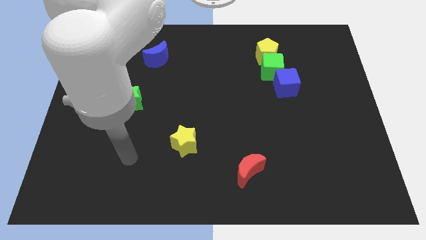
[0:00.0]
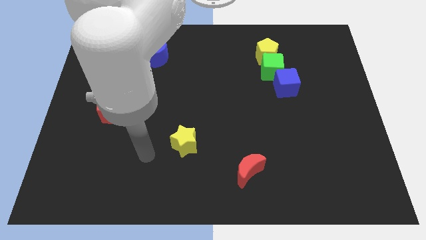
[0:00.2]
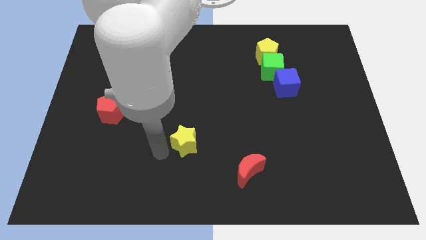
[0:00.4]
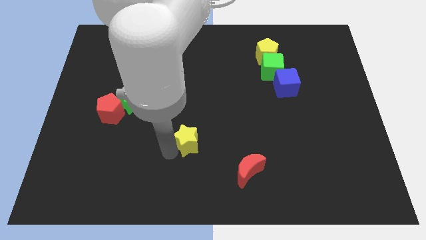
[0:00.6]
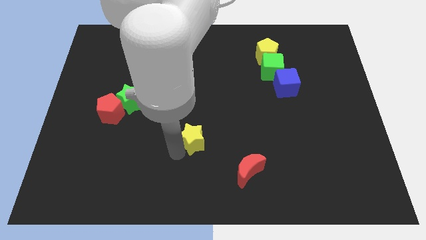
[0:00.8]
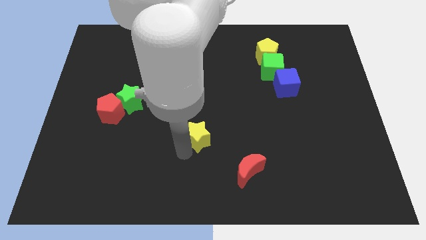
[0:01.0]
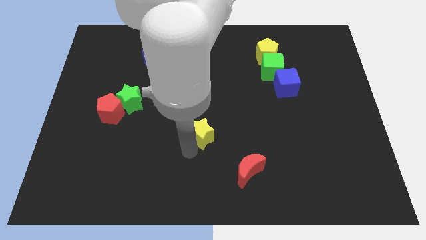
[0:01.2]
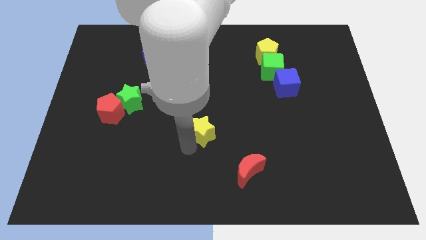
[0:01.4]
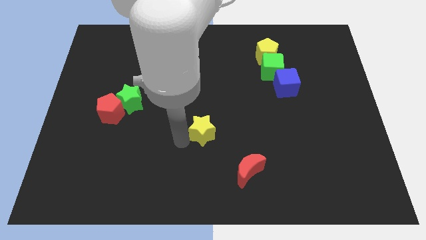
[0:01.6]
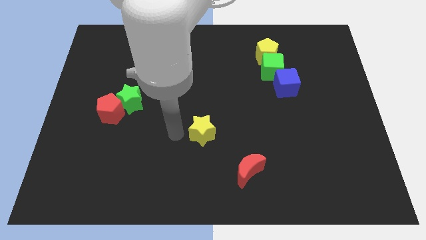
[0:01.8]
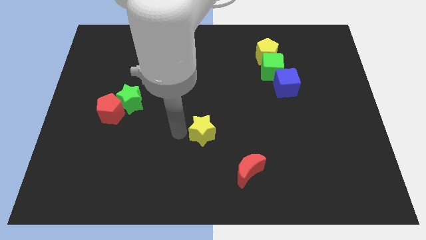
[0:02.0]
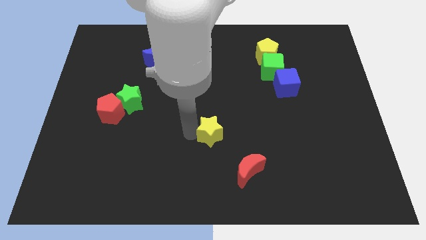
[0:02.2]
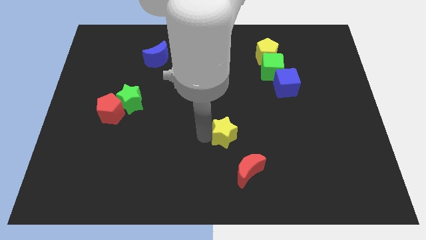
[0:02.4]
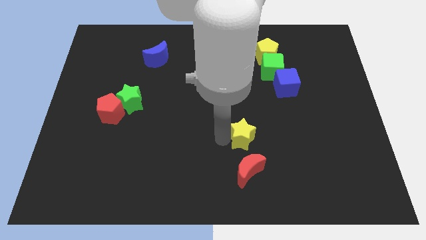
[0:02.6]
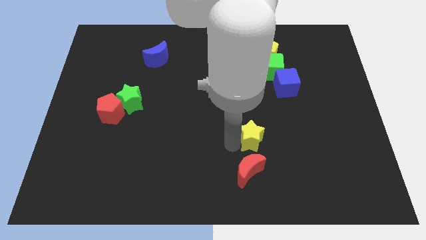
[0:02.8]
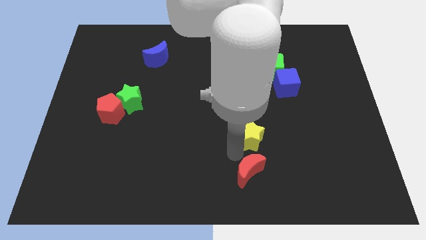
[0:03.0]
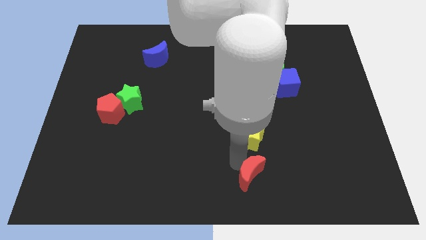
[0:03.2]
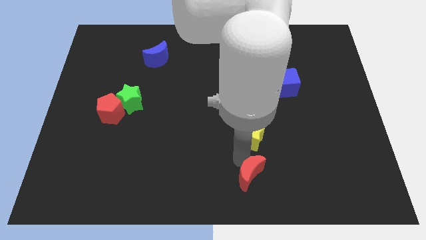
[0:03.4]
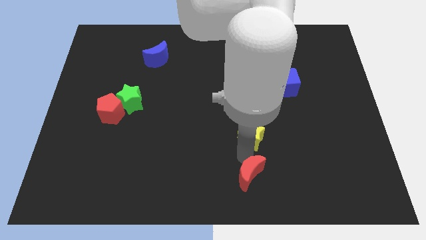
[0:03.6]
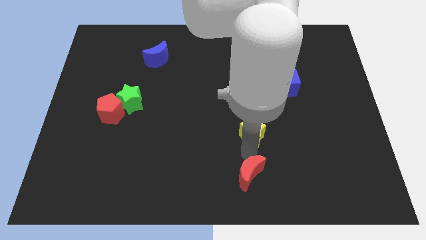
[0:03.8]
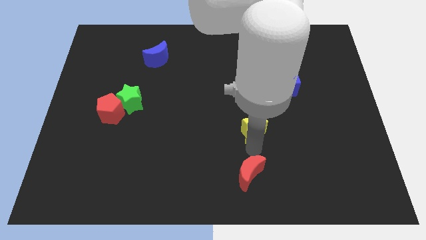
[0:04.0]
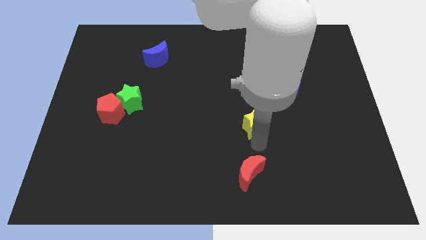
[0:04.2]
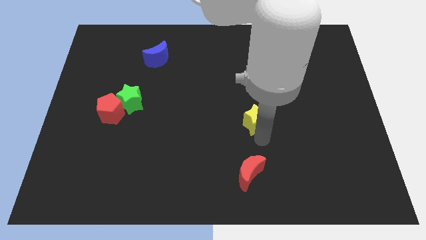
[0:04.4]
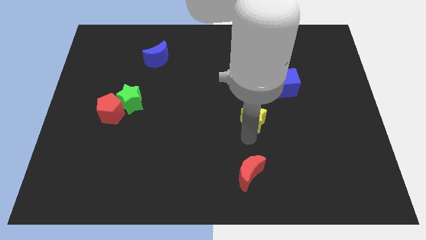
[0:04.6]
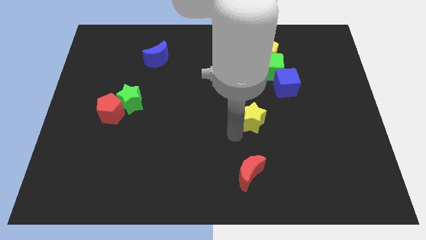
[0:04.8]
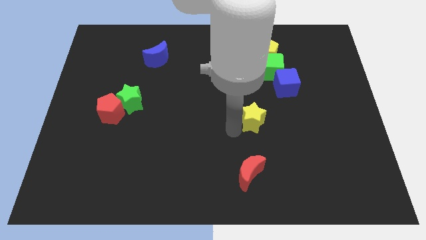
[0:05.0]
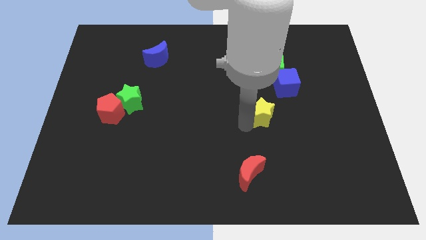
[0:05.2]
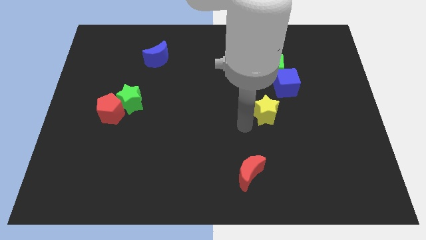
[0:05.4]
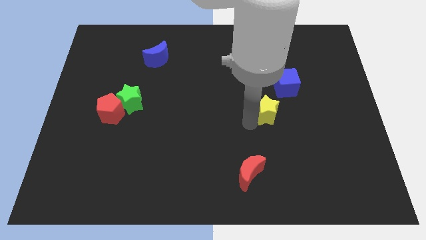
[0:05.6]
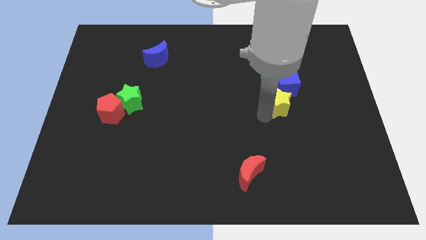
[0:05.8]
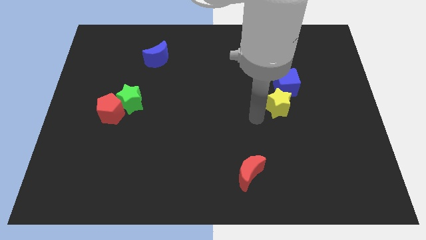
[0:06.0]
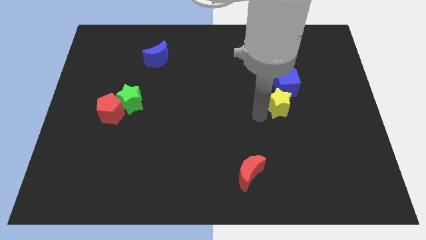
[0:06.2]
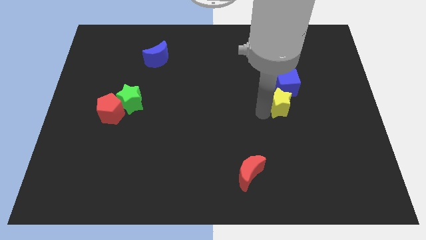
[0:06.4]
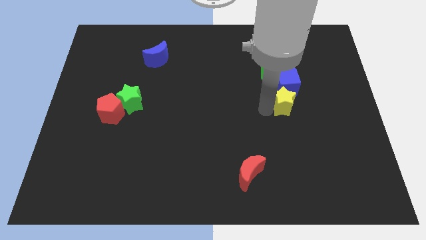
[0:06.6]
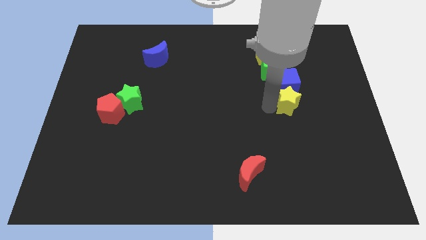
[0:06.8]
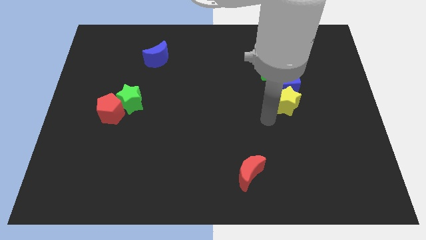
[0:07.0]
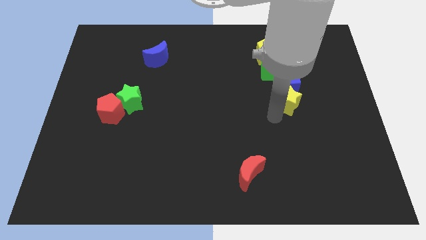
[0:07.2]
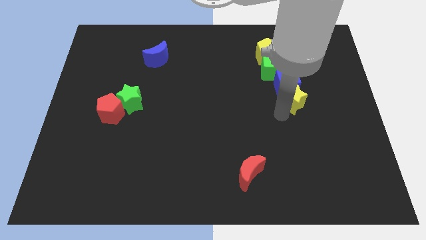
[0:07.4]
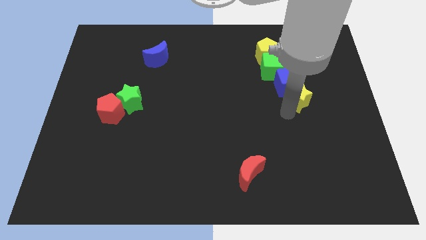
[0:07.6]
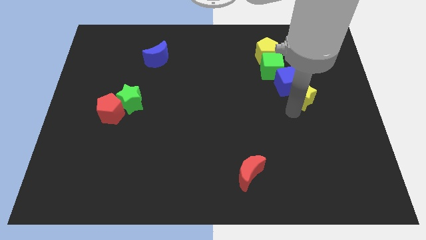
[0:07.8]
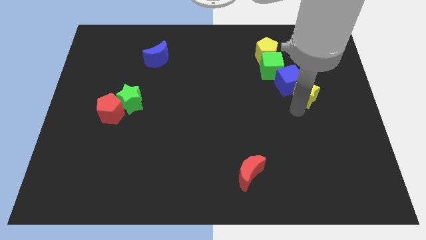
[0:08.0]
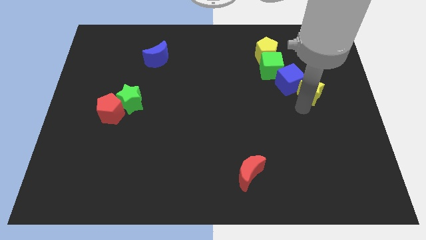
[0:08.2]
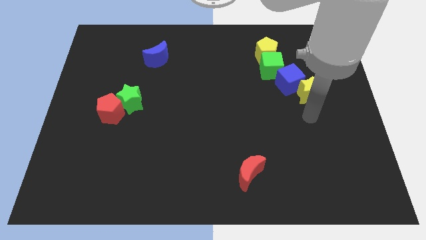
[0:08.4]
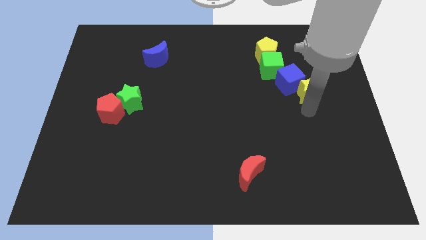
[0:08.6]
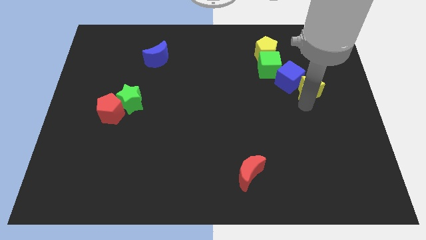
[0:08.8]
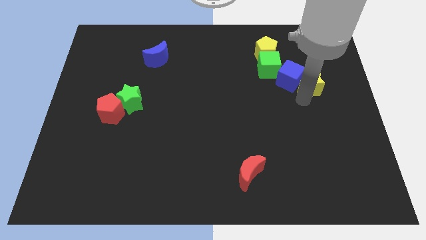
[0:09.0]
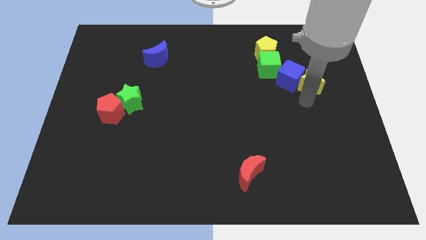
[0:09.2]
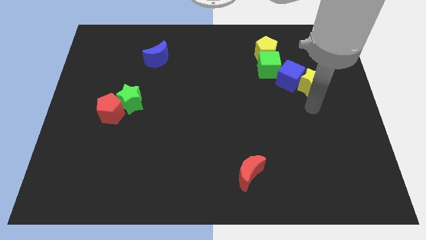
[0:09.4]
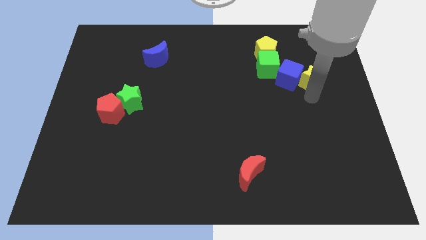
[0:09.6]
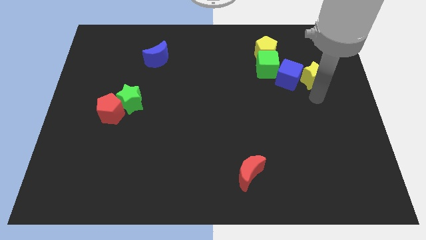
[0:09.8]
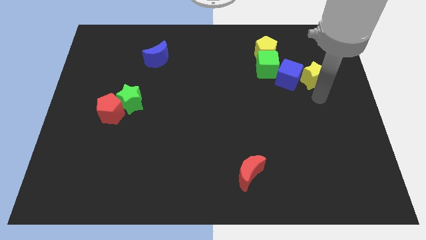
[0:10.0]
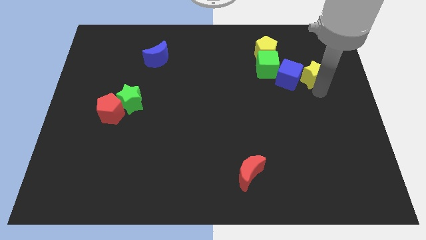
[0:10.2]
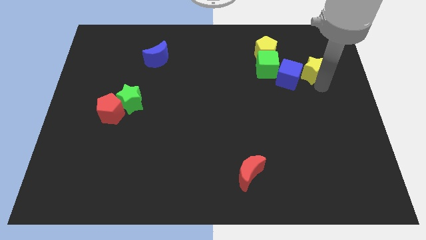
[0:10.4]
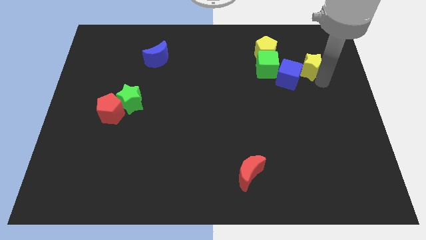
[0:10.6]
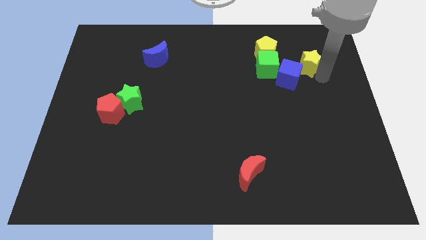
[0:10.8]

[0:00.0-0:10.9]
move the yellow star to the right side of the yellow pentagon

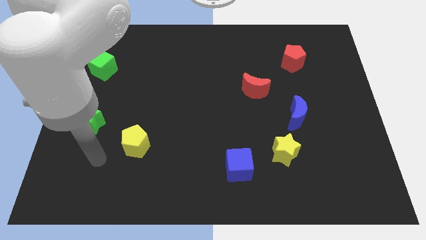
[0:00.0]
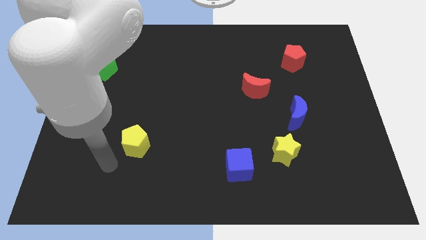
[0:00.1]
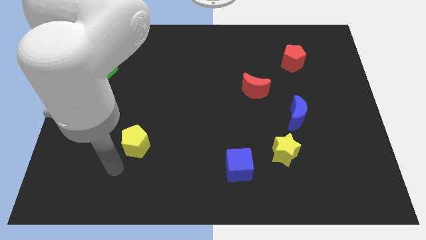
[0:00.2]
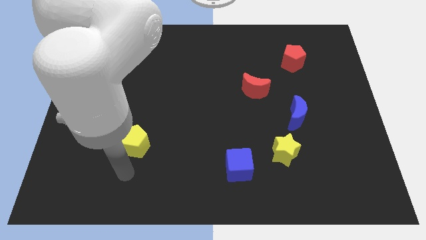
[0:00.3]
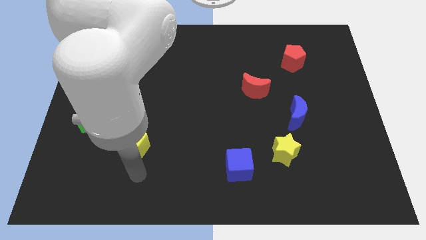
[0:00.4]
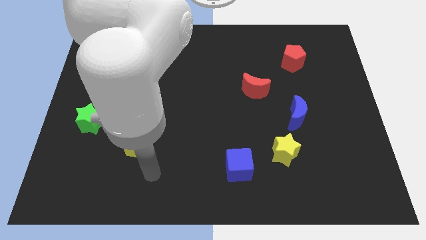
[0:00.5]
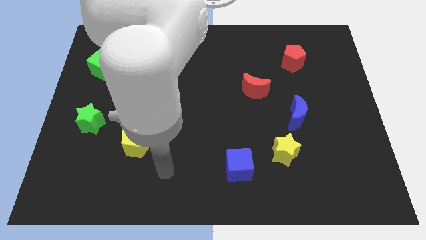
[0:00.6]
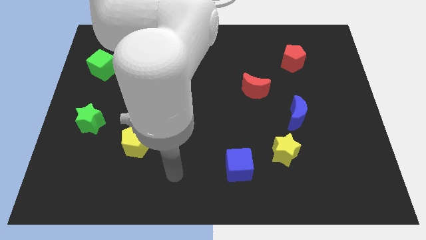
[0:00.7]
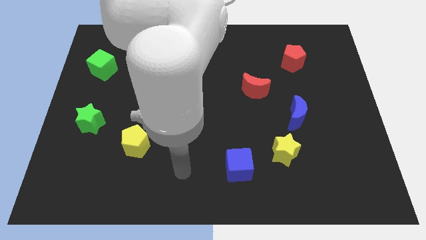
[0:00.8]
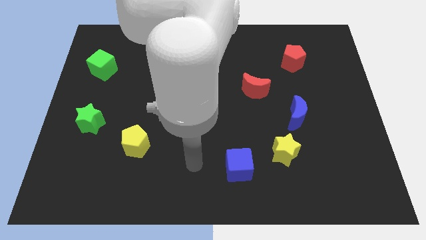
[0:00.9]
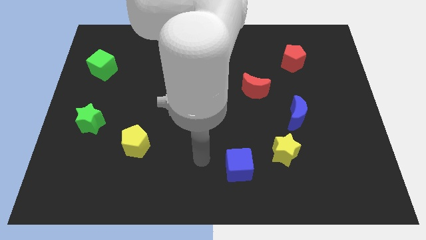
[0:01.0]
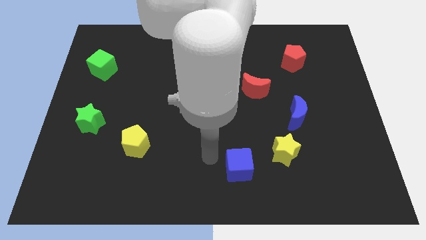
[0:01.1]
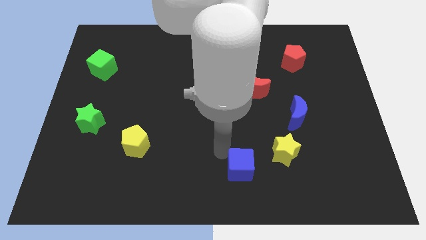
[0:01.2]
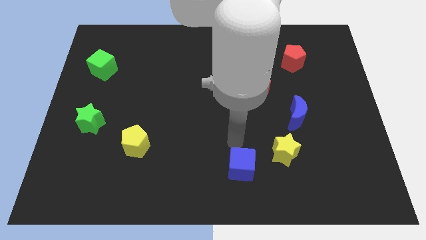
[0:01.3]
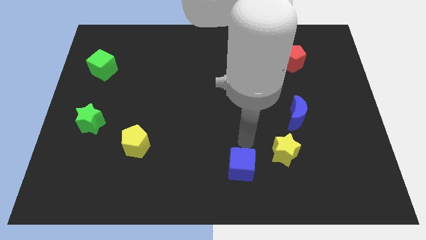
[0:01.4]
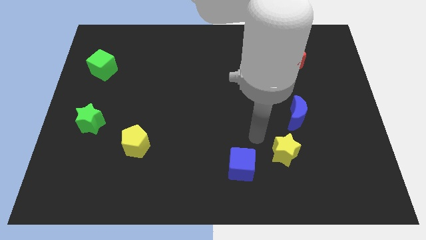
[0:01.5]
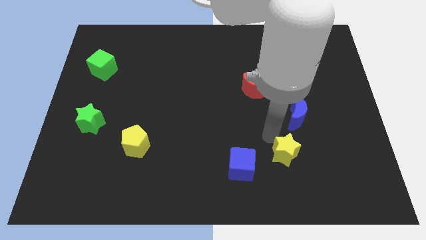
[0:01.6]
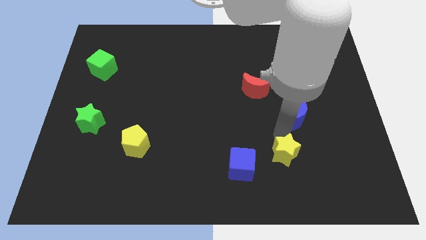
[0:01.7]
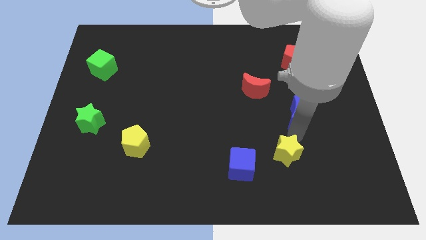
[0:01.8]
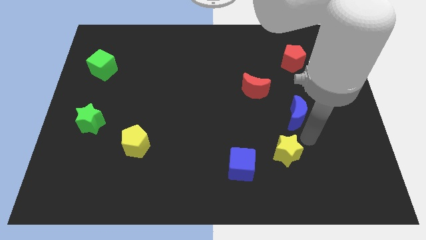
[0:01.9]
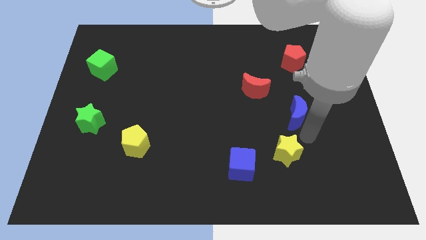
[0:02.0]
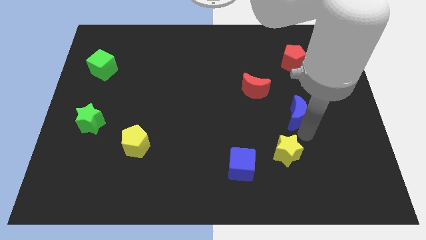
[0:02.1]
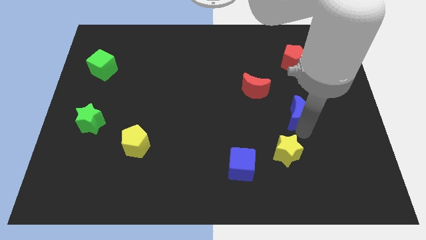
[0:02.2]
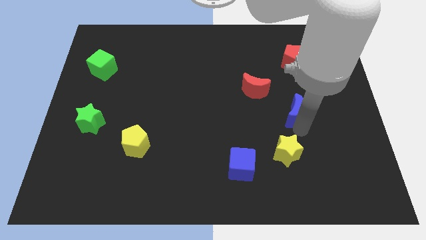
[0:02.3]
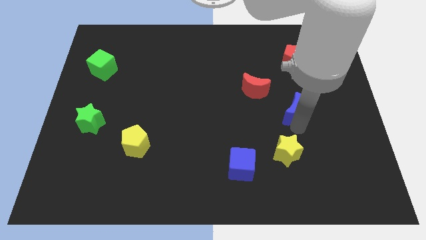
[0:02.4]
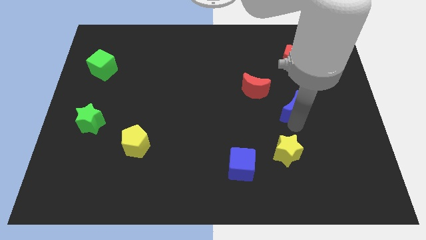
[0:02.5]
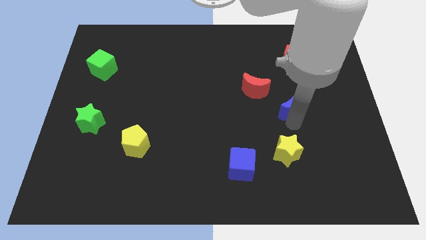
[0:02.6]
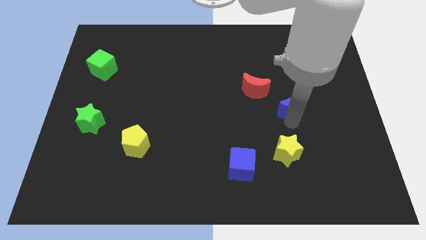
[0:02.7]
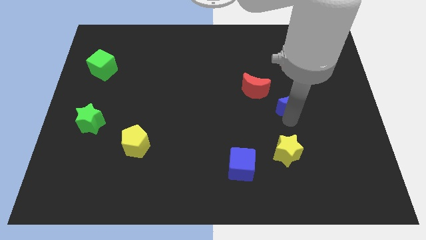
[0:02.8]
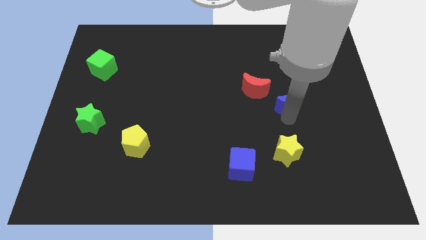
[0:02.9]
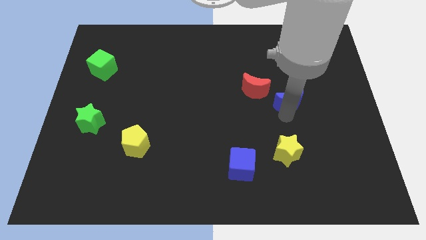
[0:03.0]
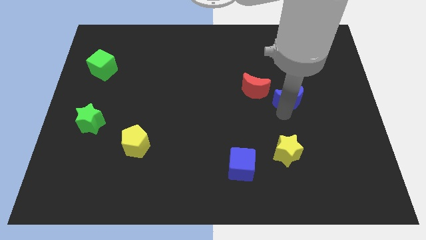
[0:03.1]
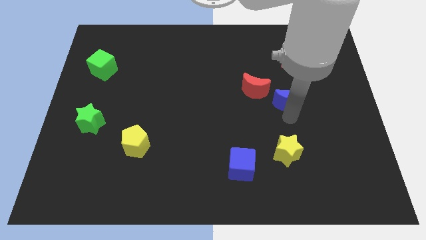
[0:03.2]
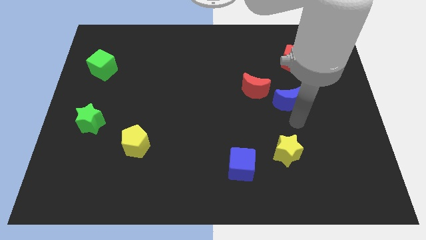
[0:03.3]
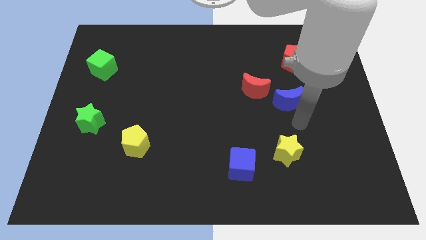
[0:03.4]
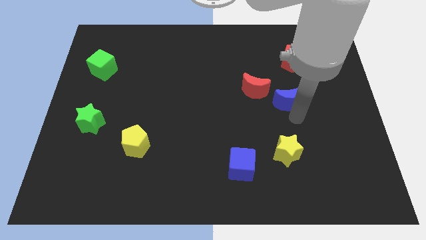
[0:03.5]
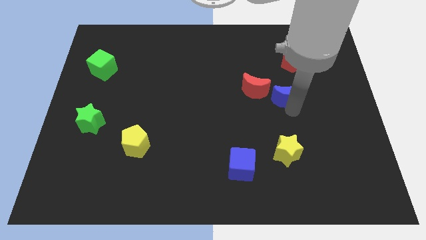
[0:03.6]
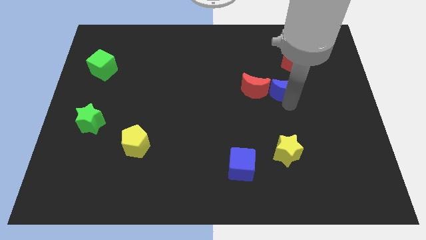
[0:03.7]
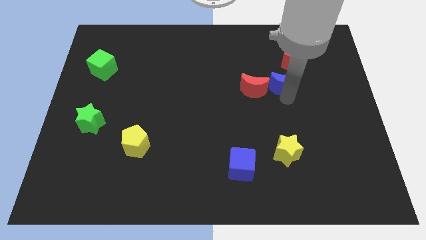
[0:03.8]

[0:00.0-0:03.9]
put the blue moon to the bottom left side of the red pentagon
